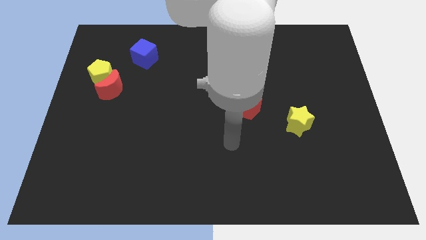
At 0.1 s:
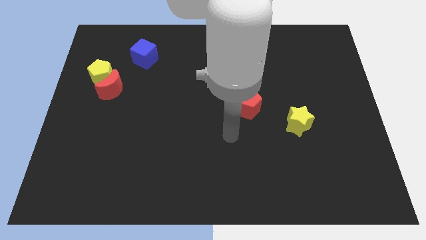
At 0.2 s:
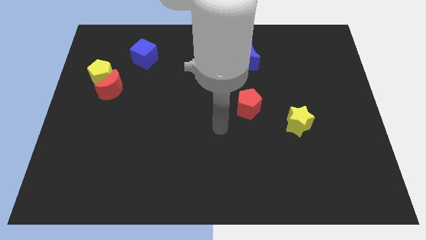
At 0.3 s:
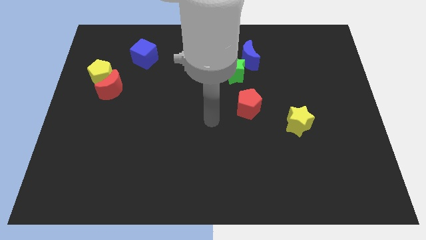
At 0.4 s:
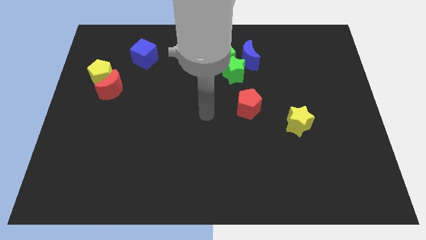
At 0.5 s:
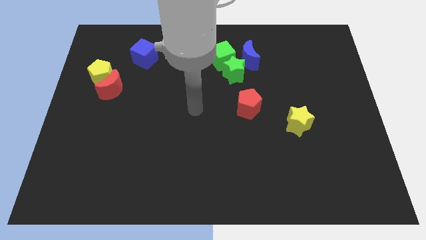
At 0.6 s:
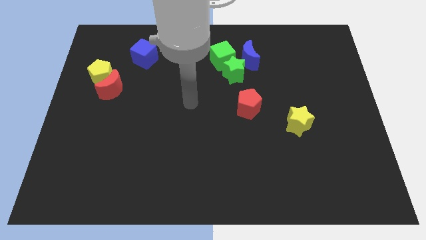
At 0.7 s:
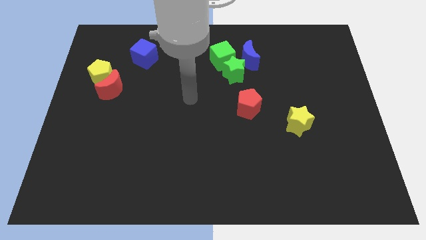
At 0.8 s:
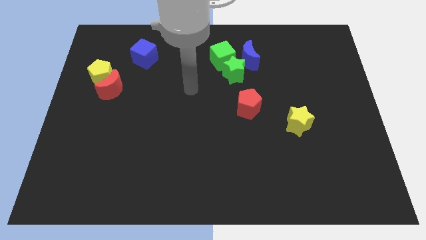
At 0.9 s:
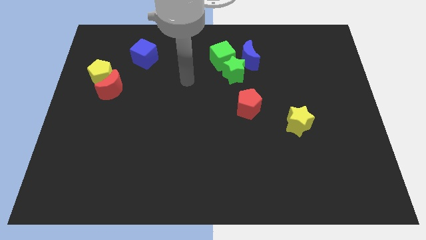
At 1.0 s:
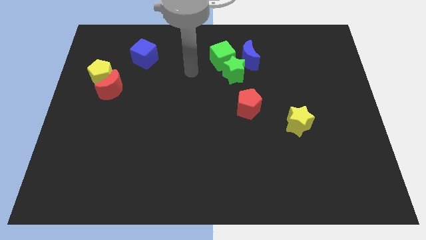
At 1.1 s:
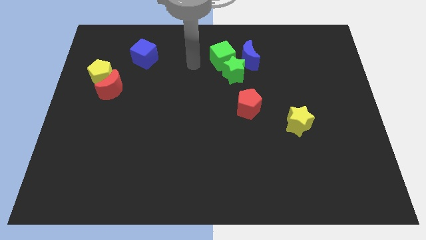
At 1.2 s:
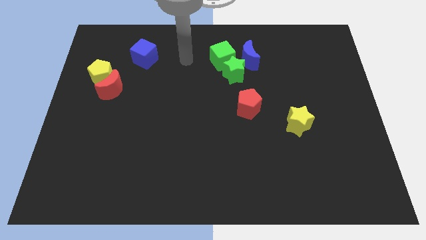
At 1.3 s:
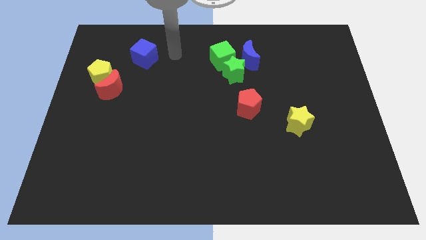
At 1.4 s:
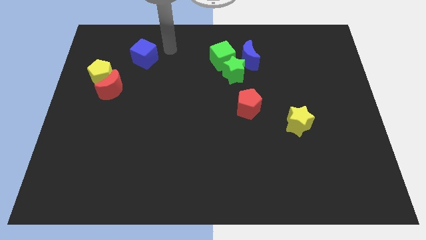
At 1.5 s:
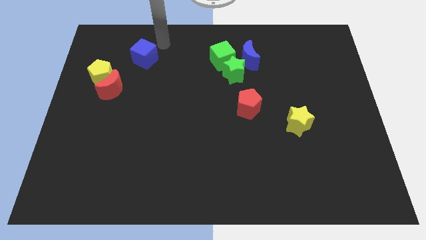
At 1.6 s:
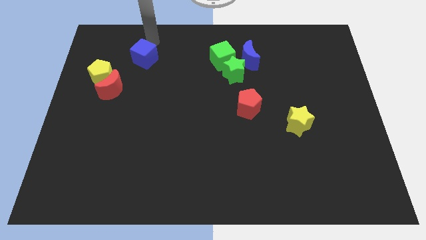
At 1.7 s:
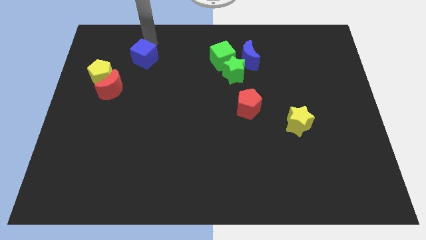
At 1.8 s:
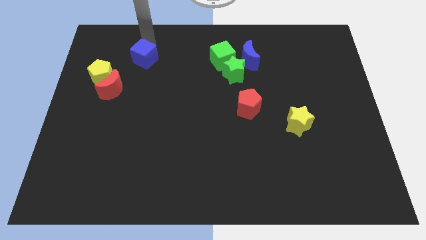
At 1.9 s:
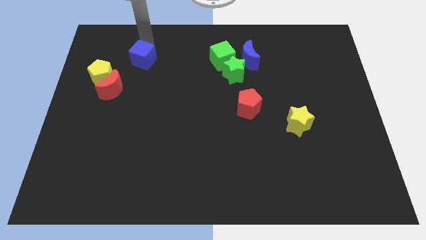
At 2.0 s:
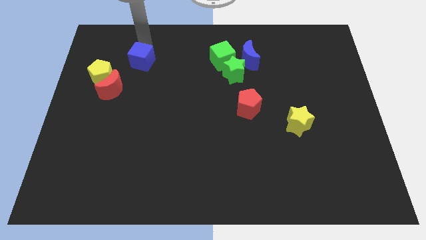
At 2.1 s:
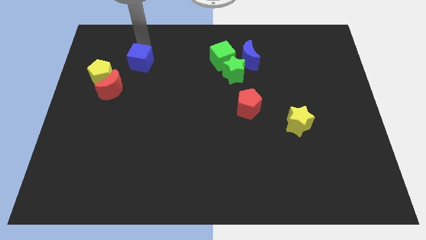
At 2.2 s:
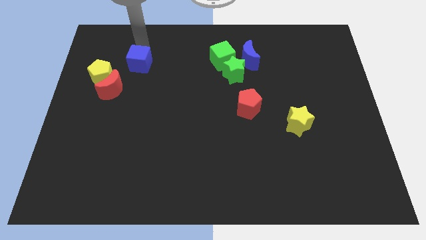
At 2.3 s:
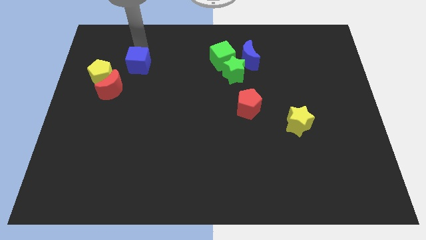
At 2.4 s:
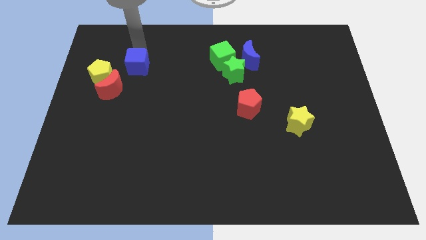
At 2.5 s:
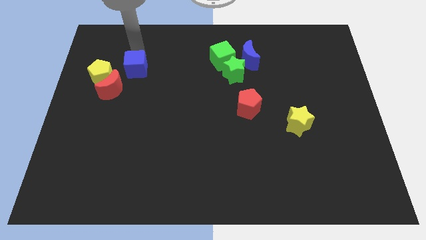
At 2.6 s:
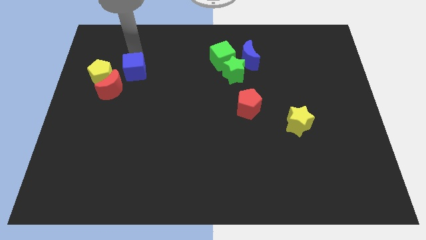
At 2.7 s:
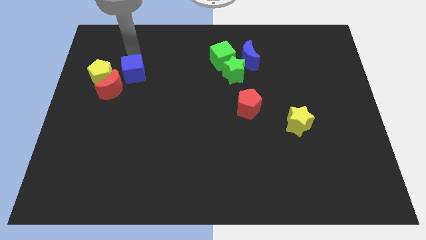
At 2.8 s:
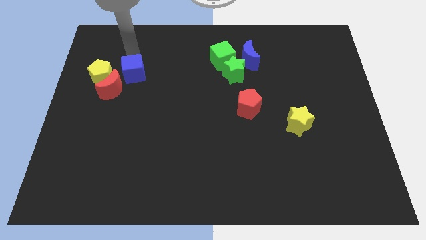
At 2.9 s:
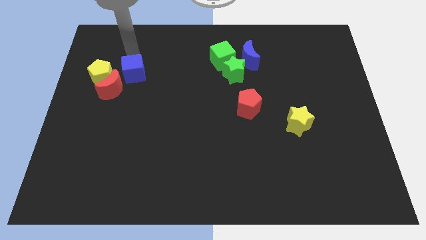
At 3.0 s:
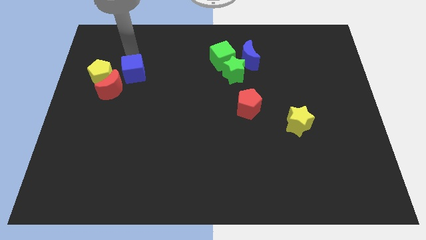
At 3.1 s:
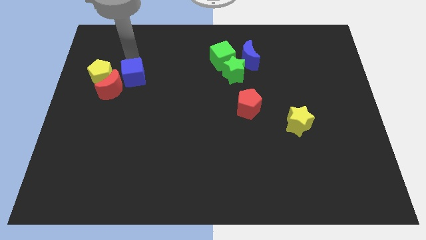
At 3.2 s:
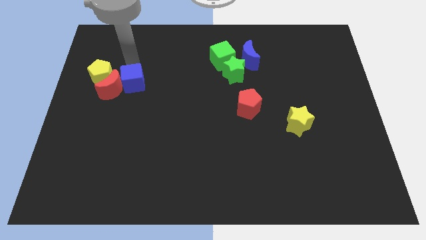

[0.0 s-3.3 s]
push the blue cube a bit downwards

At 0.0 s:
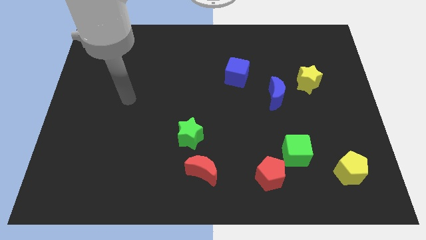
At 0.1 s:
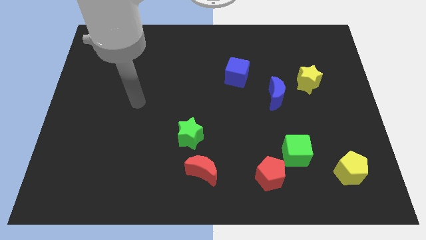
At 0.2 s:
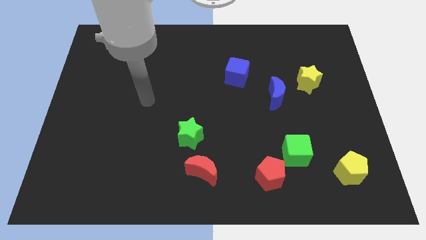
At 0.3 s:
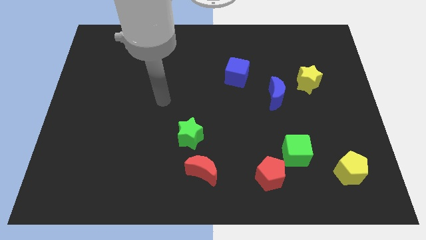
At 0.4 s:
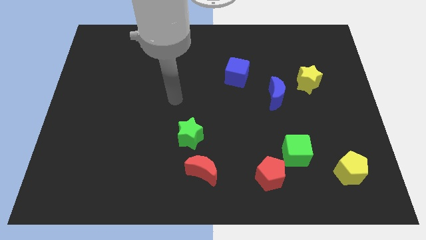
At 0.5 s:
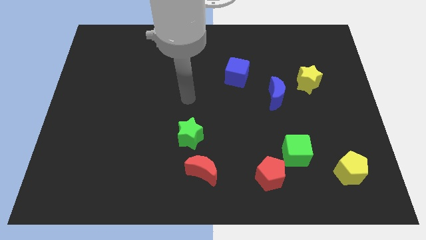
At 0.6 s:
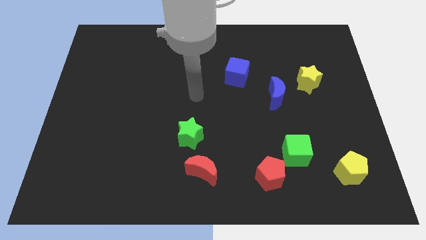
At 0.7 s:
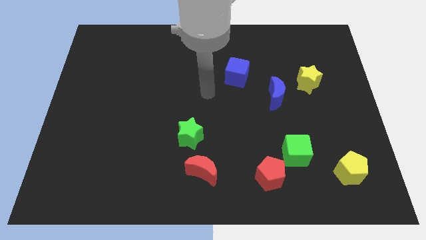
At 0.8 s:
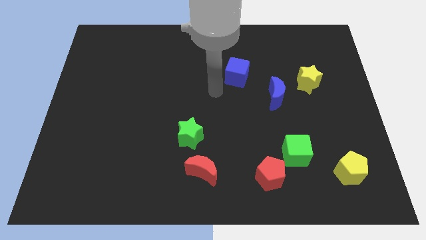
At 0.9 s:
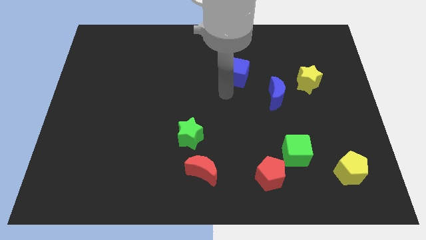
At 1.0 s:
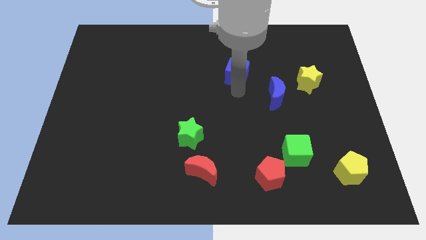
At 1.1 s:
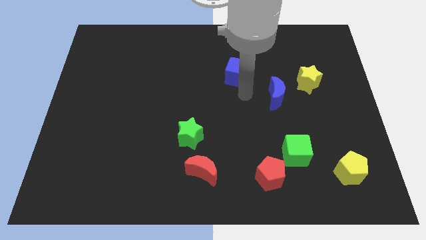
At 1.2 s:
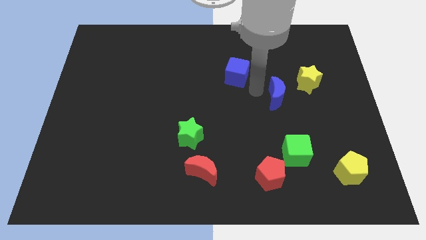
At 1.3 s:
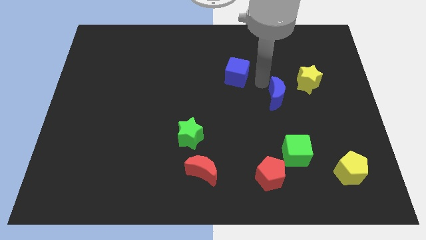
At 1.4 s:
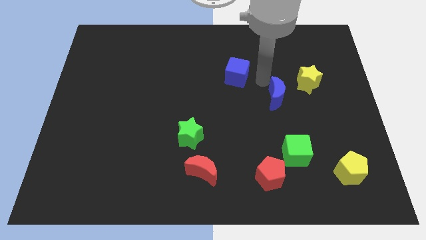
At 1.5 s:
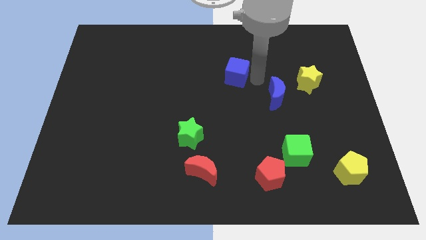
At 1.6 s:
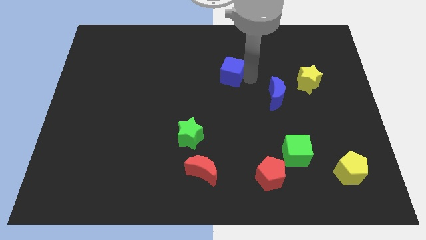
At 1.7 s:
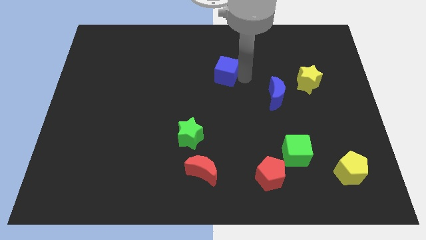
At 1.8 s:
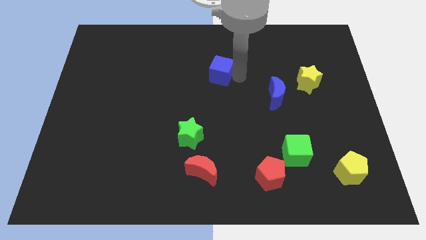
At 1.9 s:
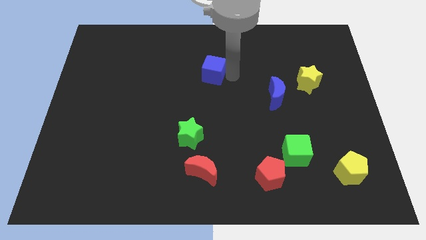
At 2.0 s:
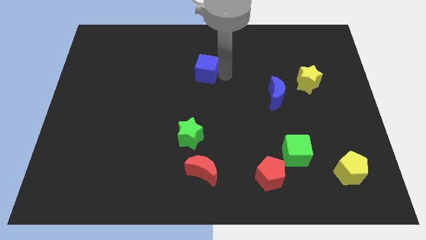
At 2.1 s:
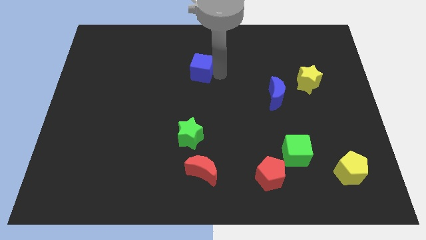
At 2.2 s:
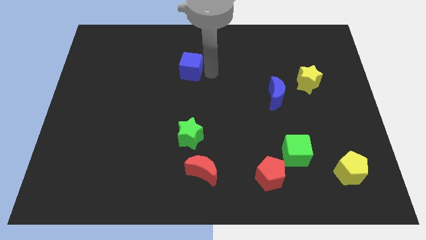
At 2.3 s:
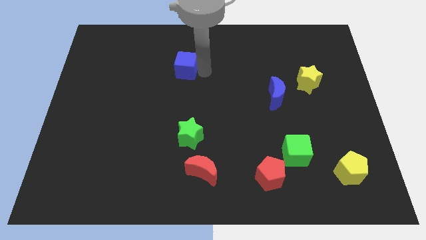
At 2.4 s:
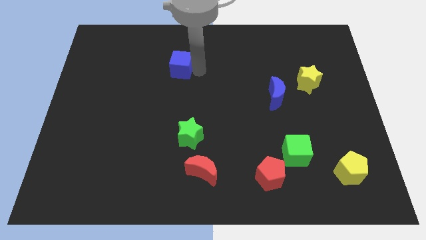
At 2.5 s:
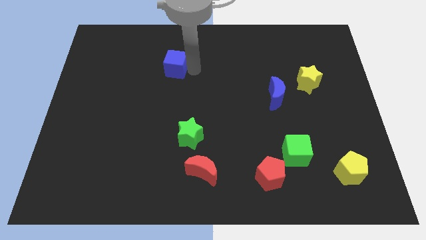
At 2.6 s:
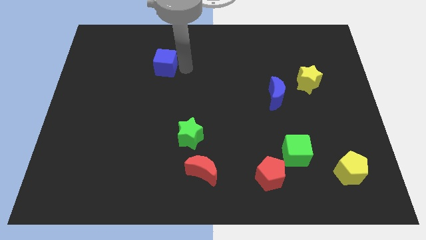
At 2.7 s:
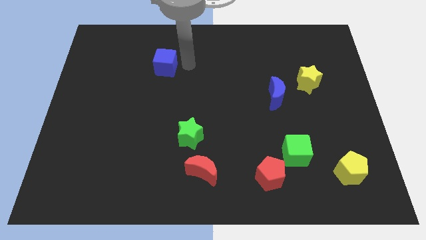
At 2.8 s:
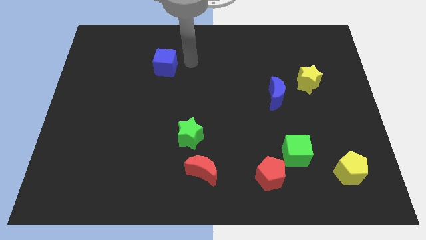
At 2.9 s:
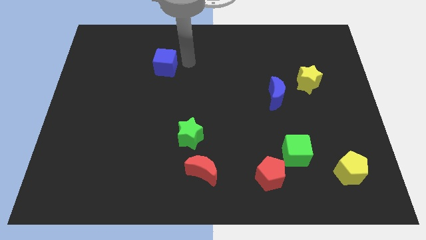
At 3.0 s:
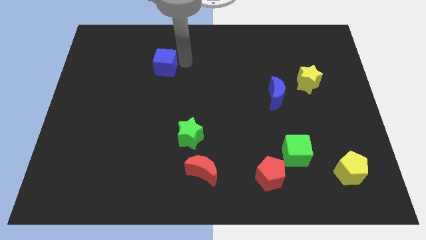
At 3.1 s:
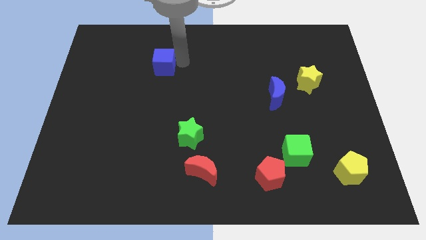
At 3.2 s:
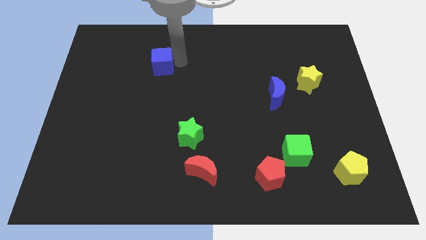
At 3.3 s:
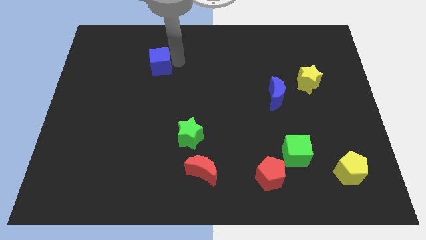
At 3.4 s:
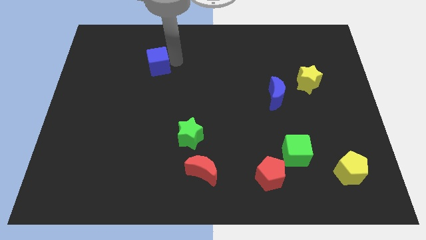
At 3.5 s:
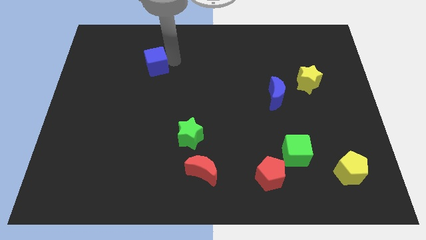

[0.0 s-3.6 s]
push the blue cube left

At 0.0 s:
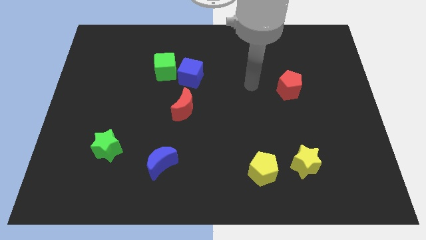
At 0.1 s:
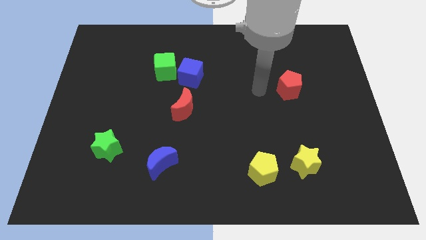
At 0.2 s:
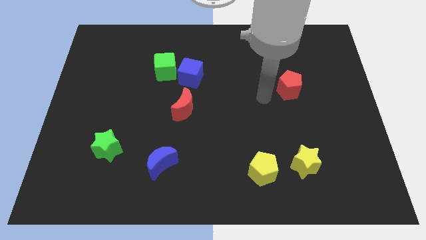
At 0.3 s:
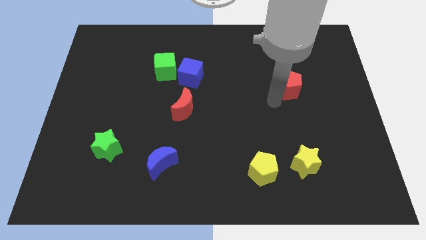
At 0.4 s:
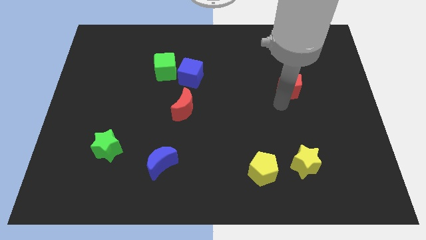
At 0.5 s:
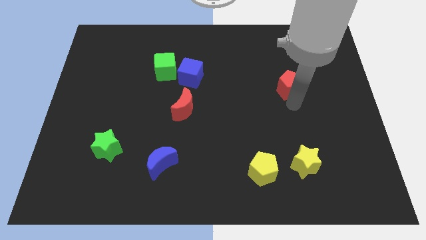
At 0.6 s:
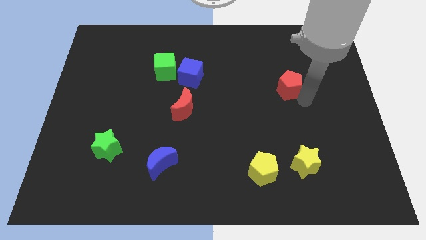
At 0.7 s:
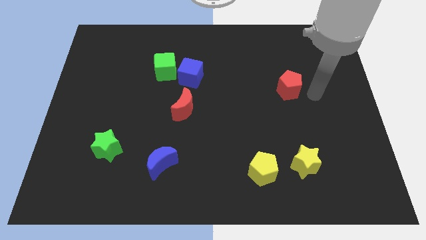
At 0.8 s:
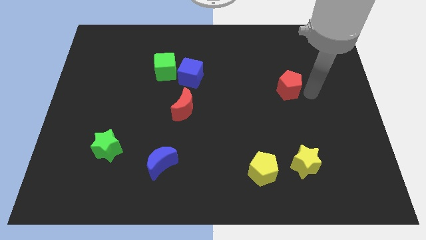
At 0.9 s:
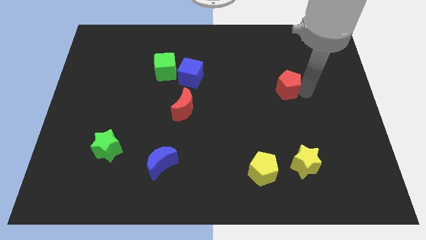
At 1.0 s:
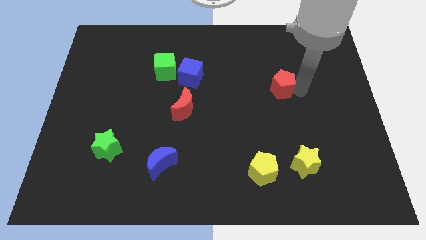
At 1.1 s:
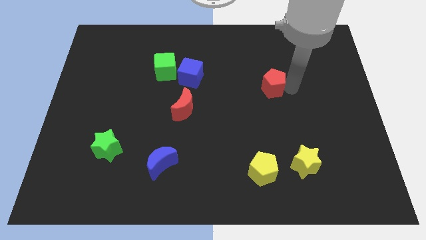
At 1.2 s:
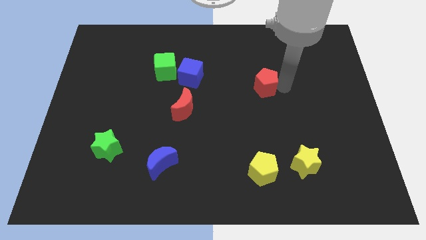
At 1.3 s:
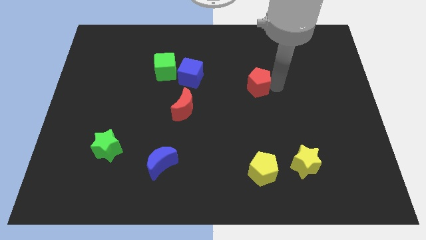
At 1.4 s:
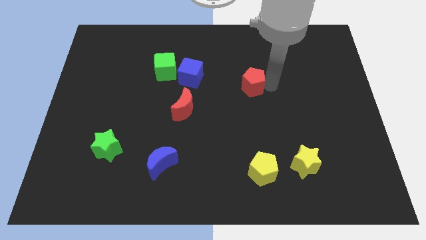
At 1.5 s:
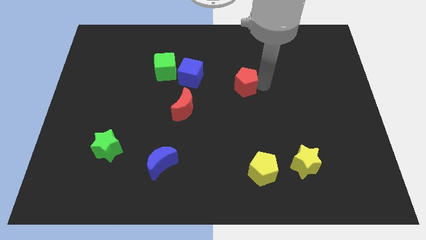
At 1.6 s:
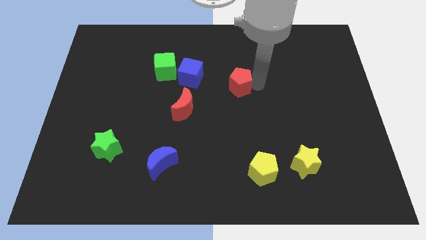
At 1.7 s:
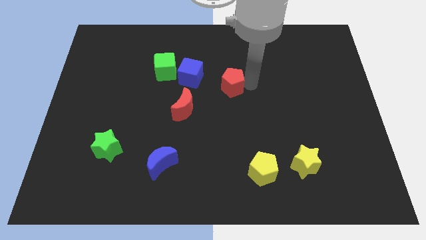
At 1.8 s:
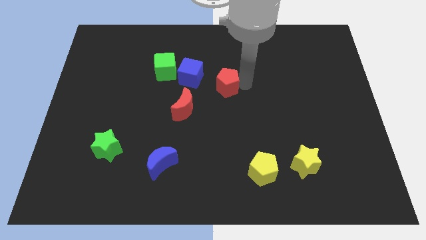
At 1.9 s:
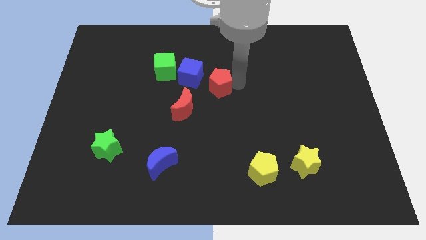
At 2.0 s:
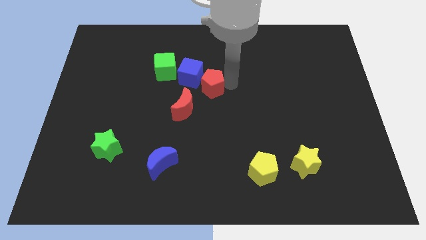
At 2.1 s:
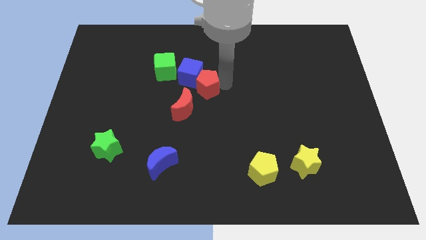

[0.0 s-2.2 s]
slide the red pentagon left
